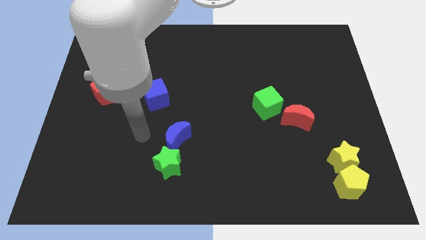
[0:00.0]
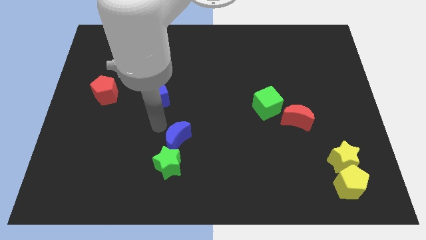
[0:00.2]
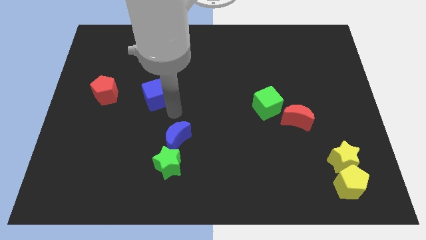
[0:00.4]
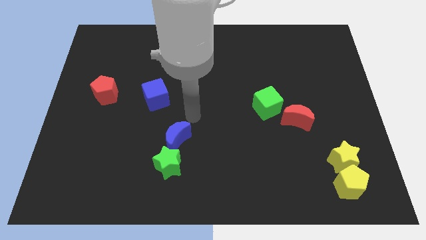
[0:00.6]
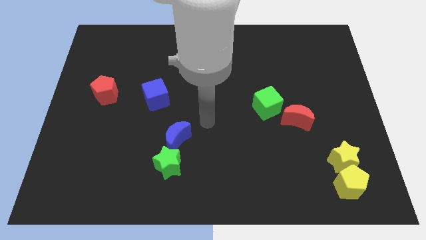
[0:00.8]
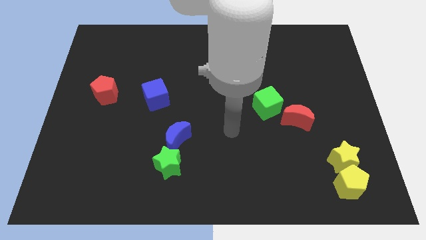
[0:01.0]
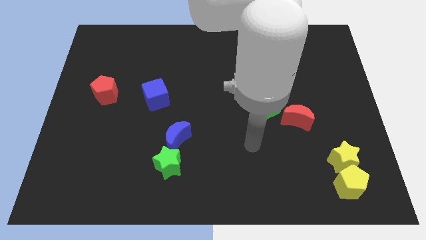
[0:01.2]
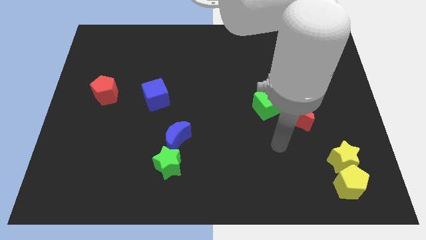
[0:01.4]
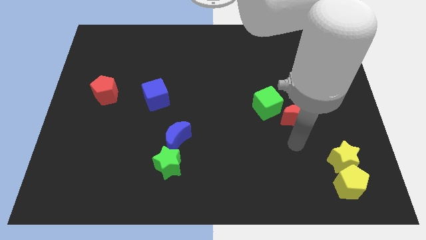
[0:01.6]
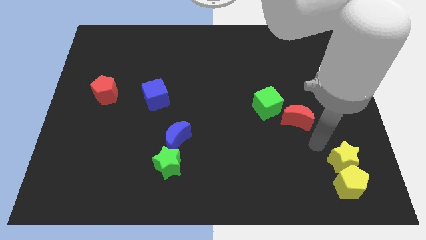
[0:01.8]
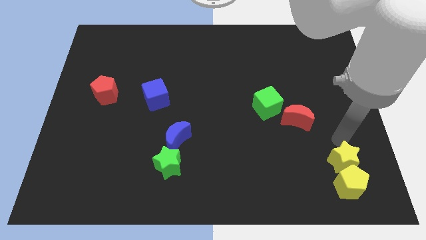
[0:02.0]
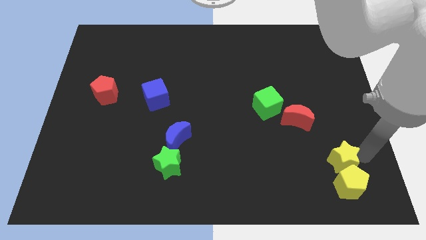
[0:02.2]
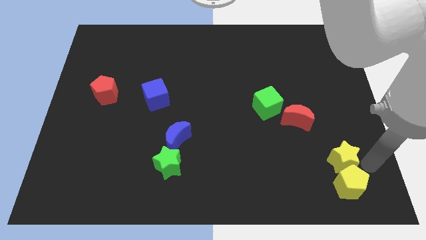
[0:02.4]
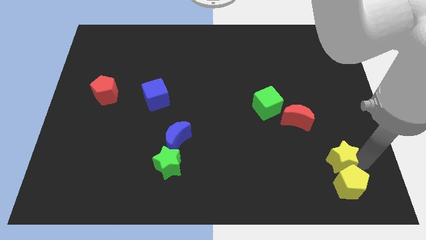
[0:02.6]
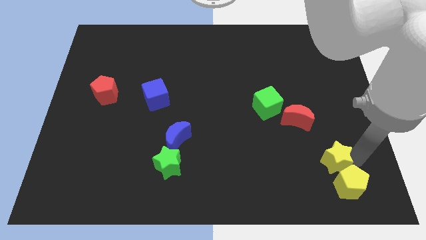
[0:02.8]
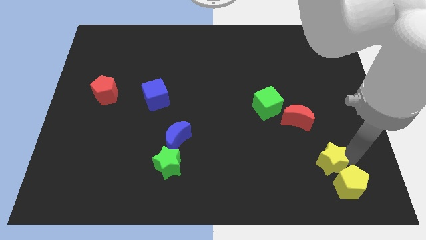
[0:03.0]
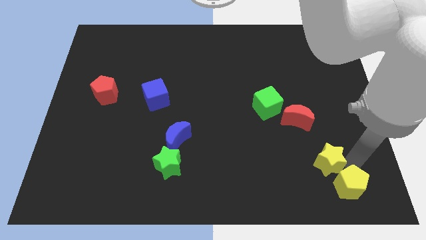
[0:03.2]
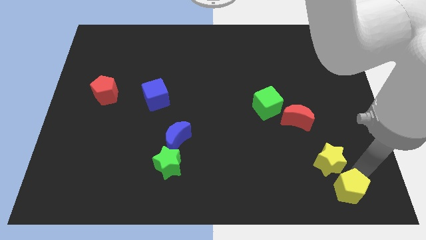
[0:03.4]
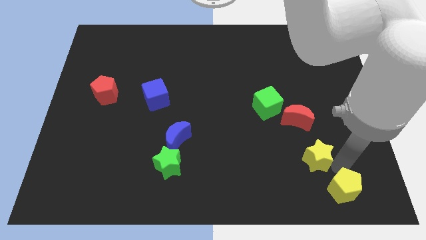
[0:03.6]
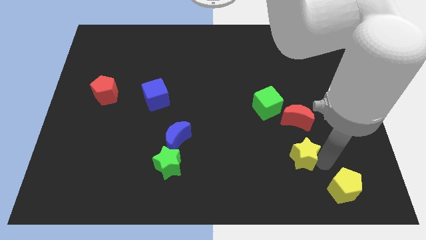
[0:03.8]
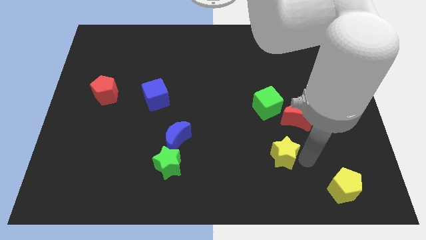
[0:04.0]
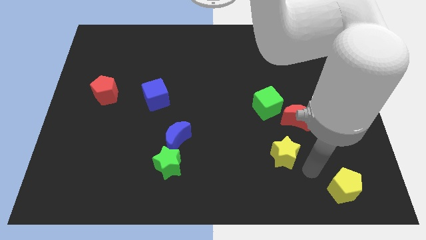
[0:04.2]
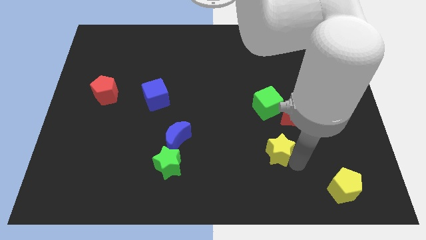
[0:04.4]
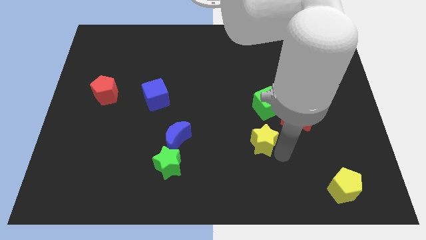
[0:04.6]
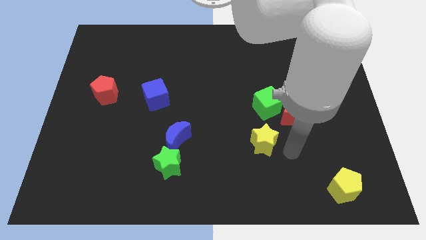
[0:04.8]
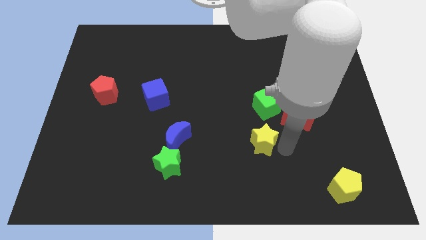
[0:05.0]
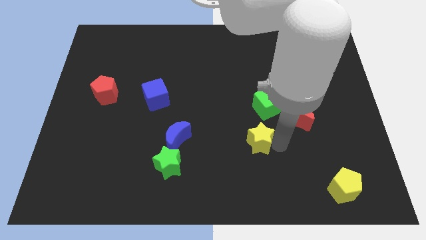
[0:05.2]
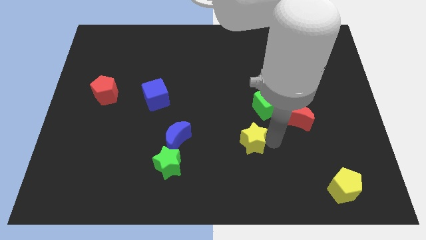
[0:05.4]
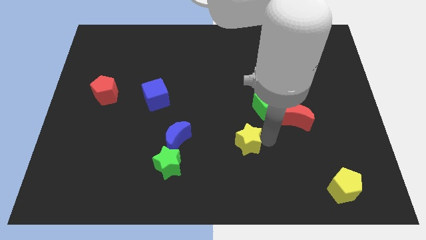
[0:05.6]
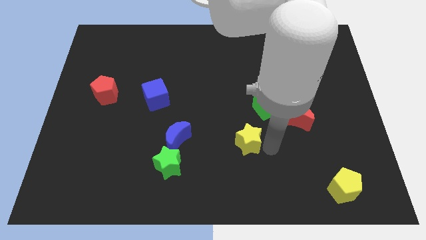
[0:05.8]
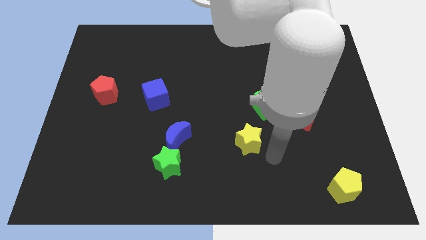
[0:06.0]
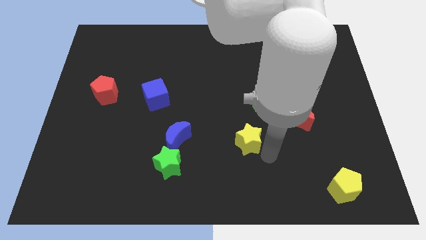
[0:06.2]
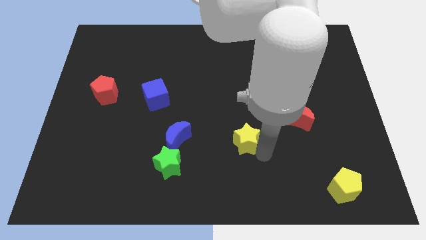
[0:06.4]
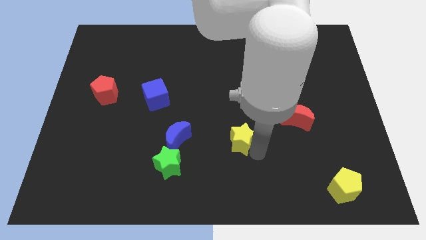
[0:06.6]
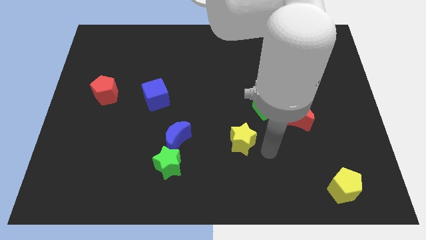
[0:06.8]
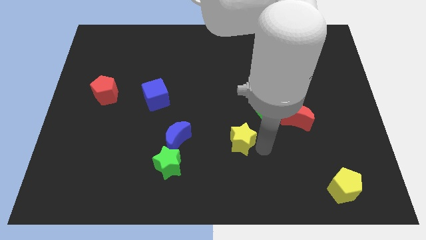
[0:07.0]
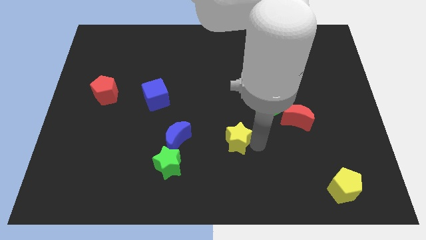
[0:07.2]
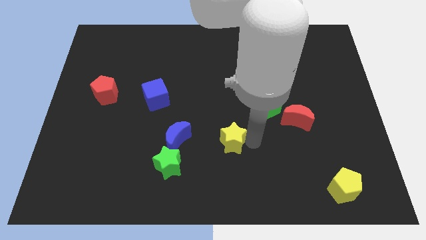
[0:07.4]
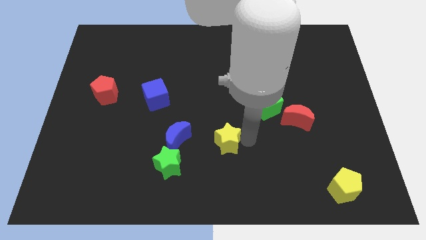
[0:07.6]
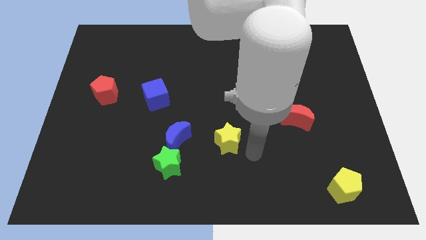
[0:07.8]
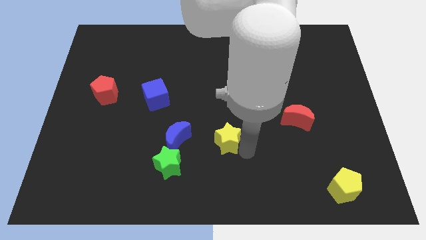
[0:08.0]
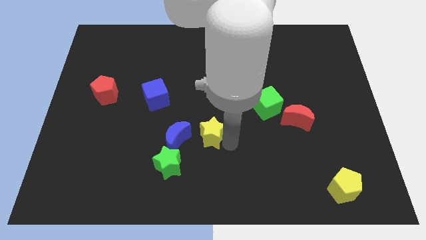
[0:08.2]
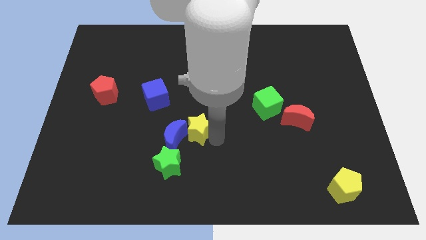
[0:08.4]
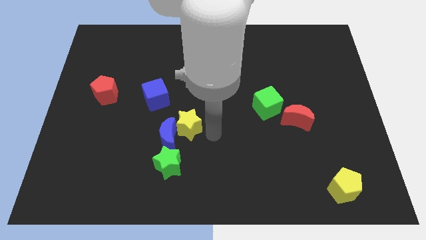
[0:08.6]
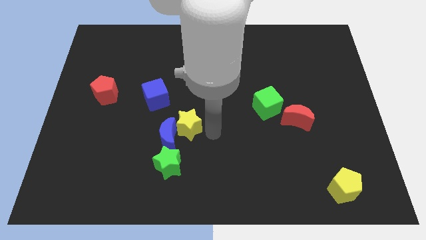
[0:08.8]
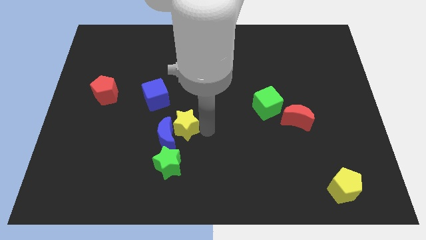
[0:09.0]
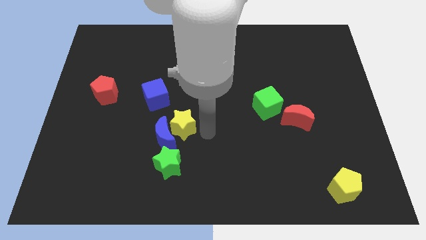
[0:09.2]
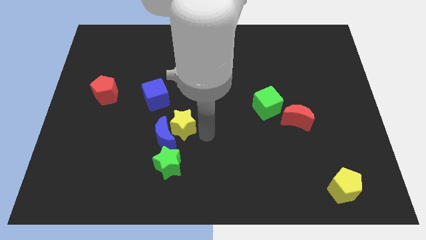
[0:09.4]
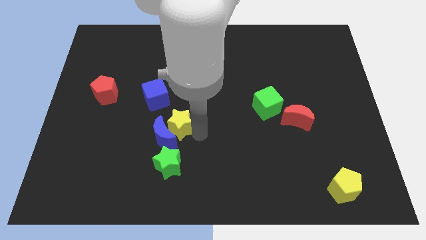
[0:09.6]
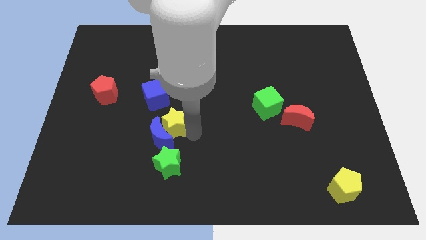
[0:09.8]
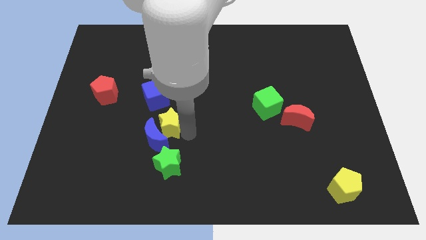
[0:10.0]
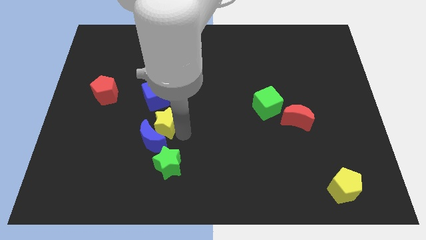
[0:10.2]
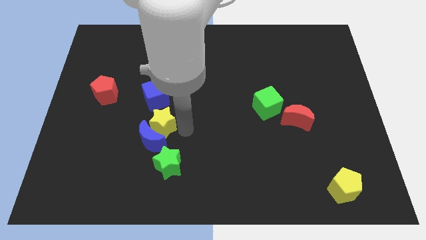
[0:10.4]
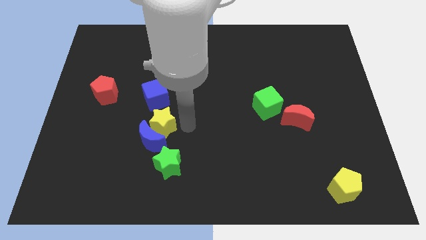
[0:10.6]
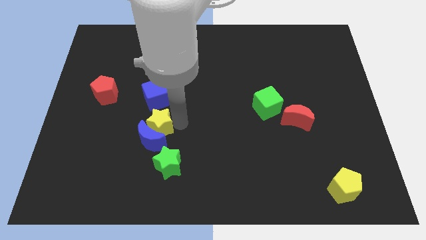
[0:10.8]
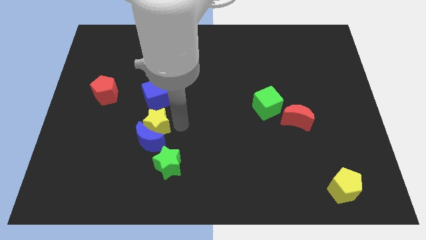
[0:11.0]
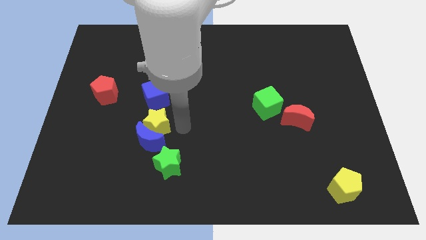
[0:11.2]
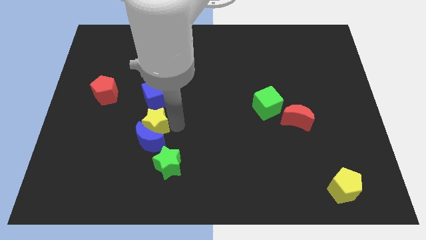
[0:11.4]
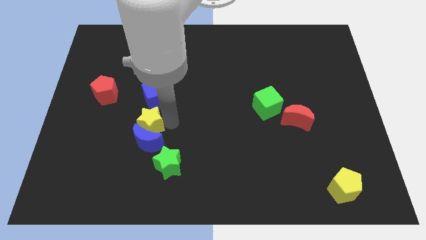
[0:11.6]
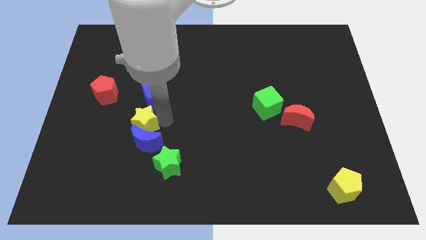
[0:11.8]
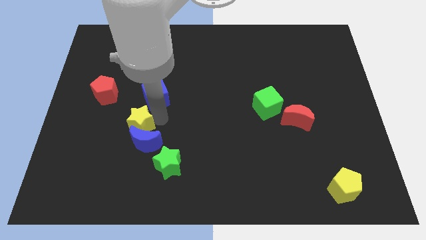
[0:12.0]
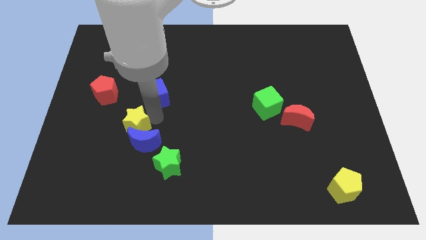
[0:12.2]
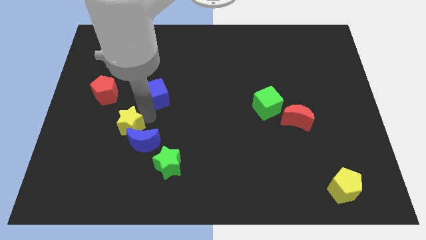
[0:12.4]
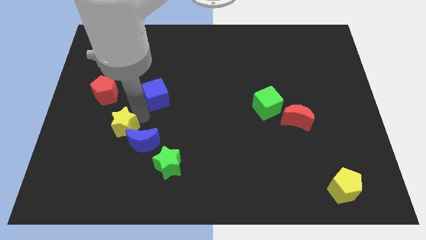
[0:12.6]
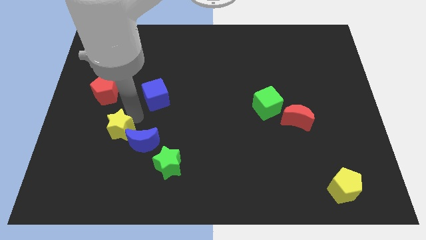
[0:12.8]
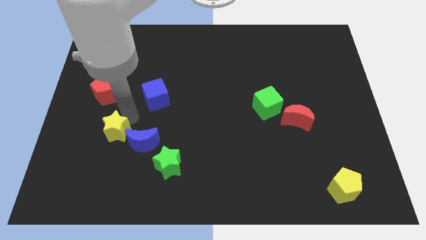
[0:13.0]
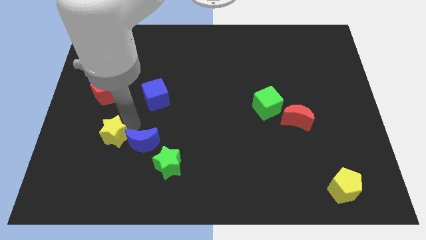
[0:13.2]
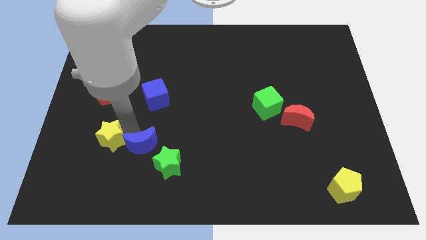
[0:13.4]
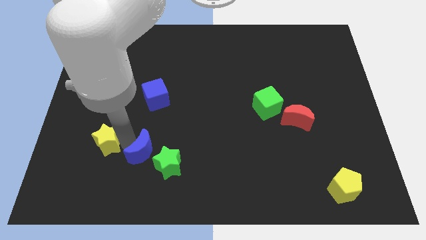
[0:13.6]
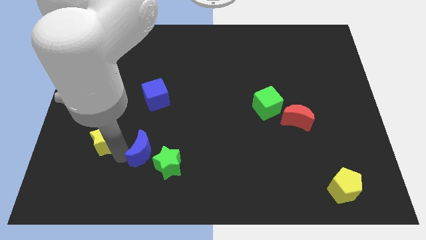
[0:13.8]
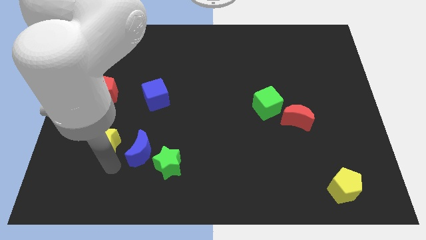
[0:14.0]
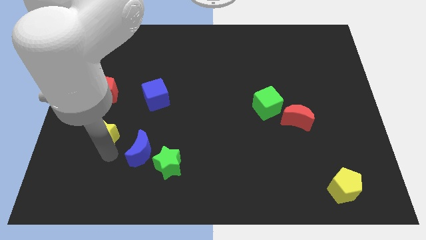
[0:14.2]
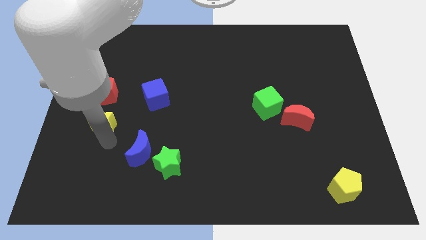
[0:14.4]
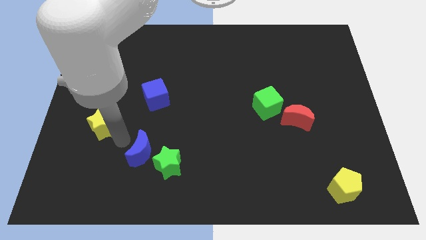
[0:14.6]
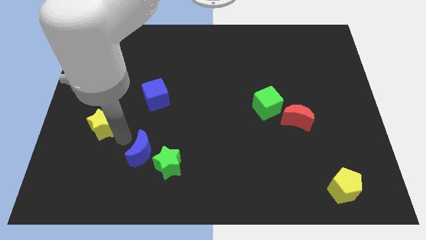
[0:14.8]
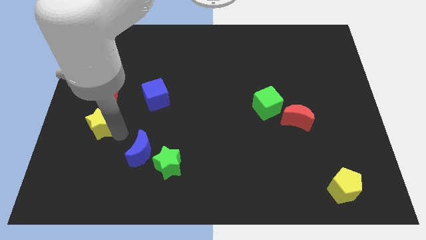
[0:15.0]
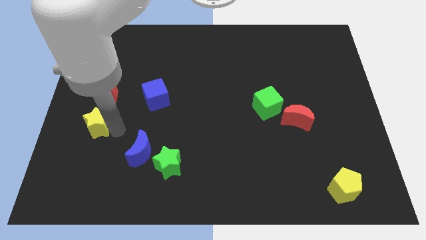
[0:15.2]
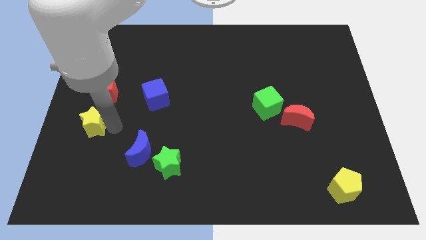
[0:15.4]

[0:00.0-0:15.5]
slide the yellow star to the center left
